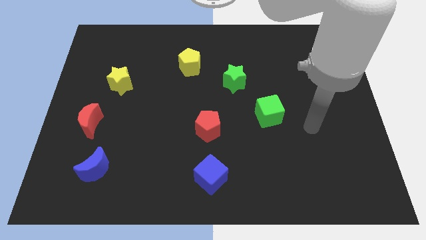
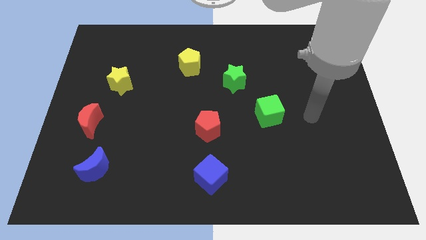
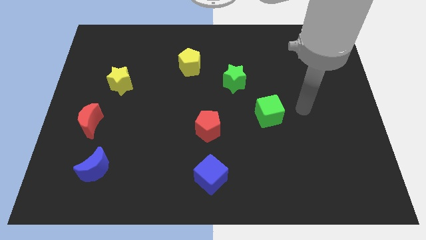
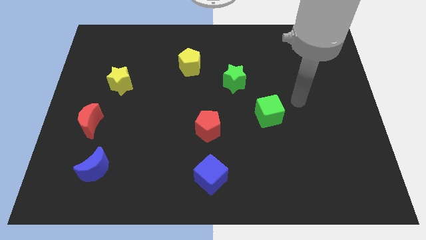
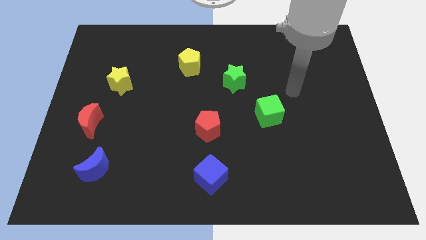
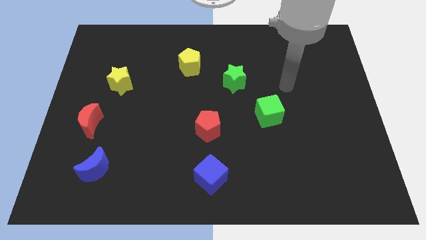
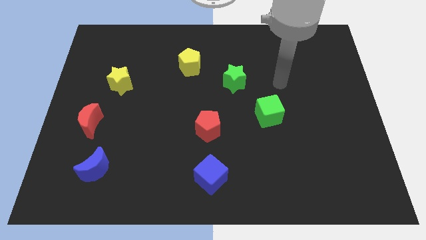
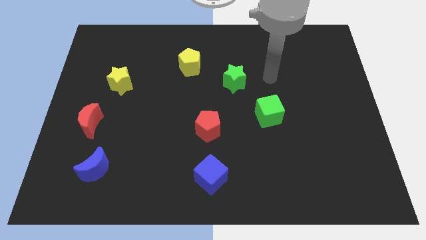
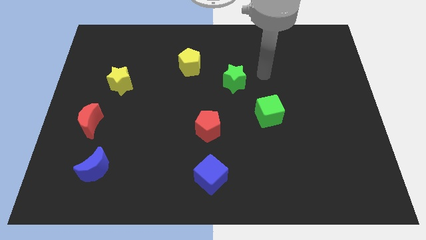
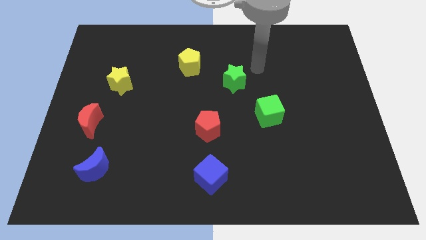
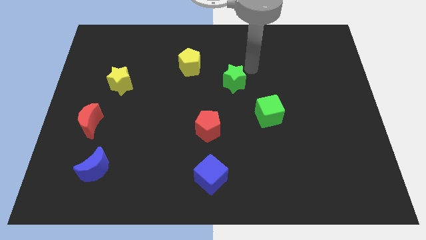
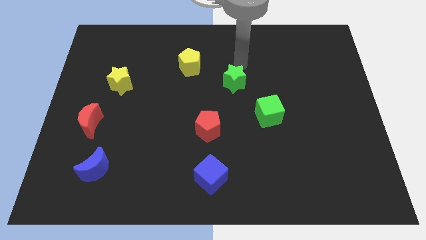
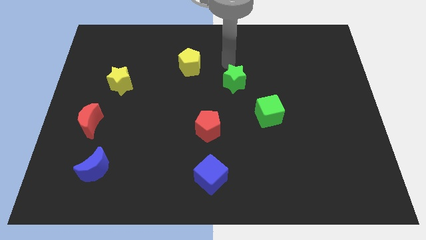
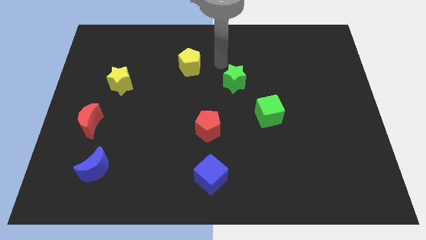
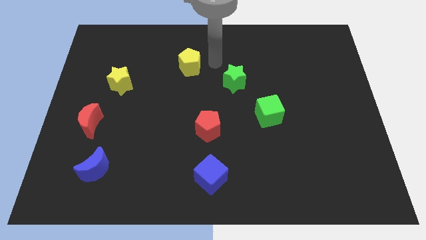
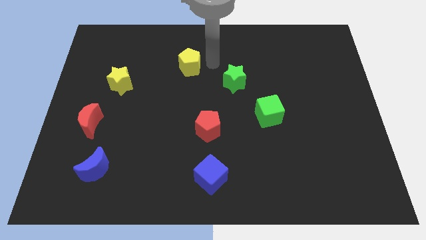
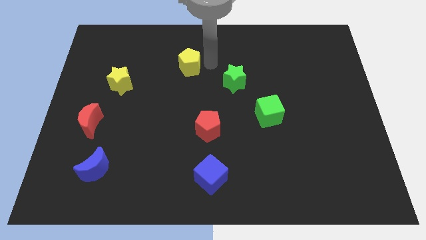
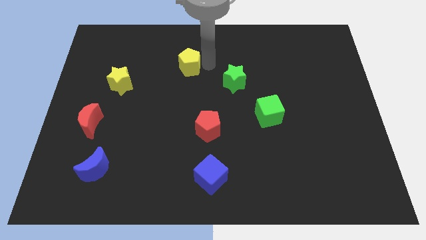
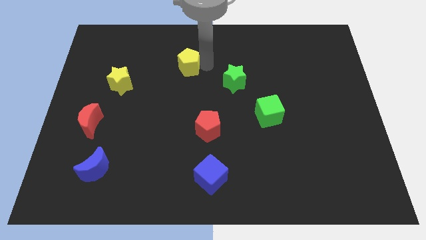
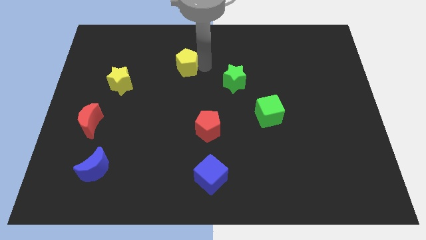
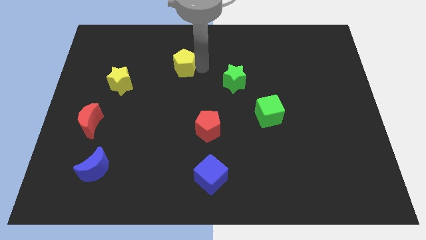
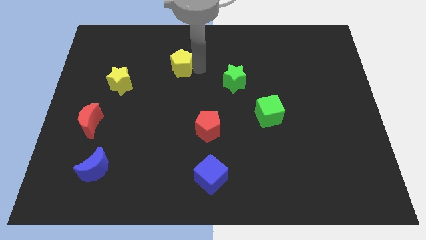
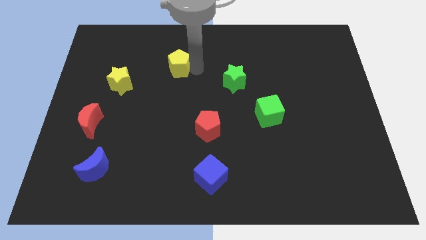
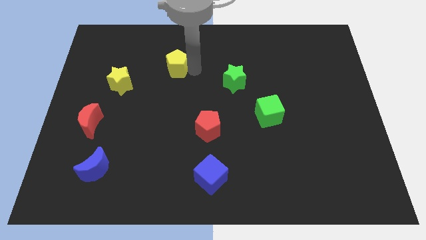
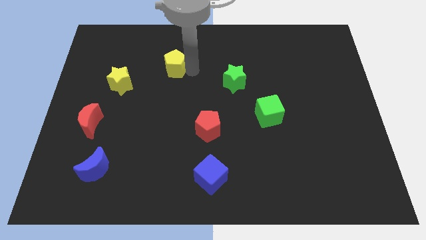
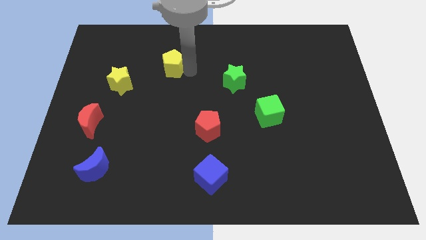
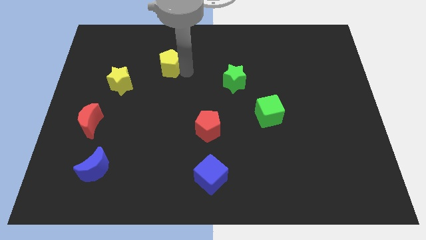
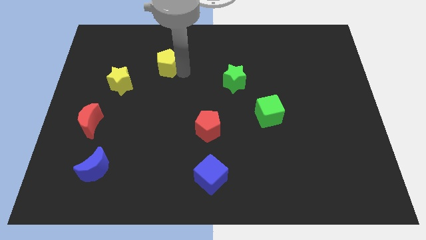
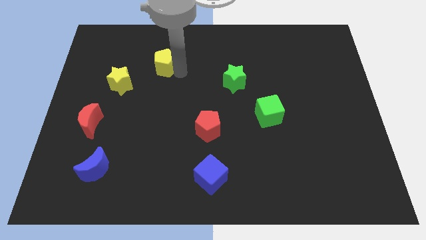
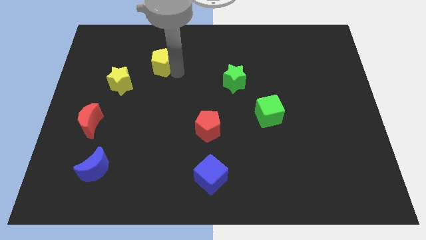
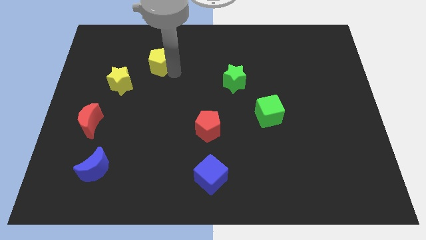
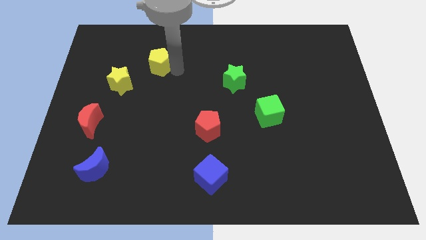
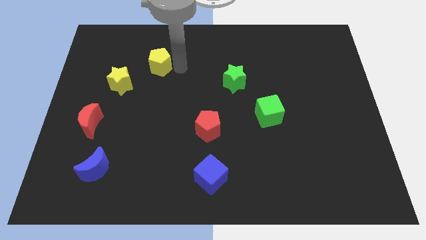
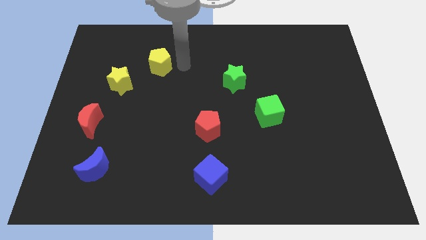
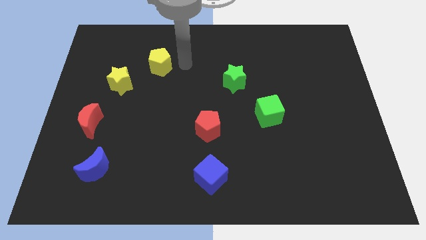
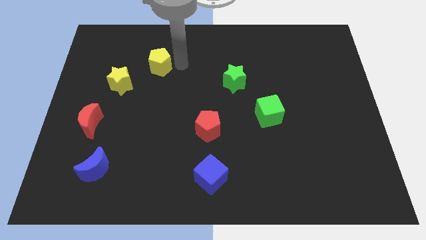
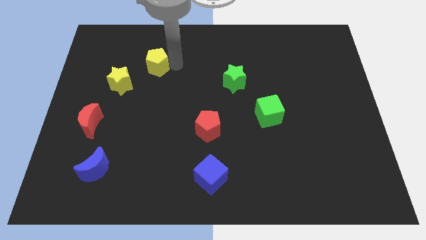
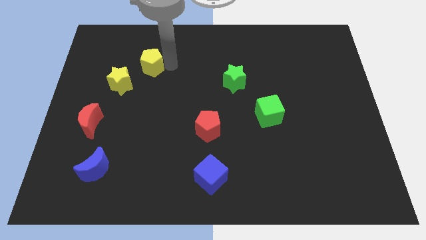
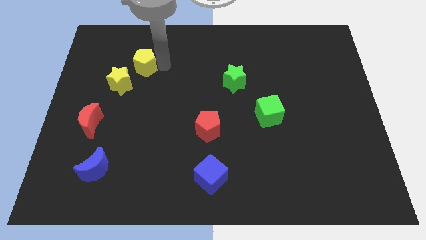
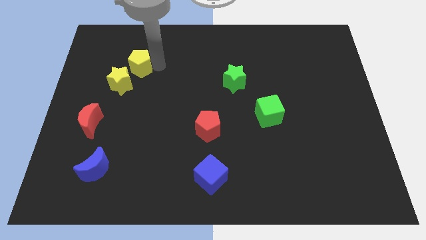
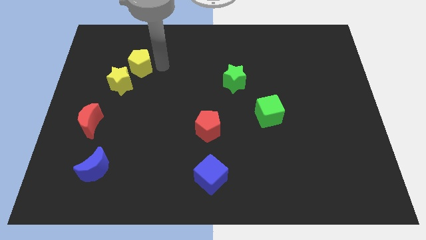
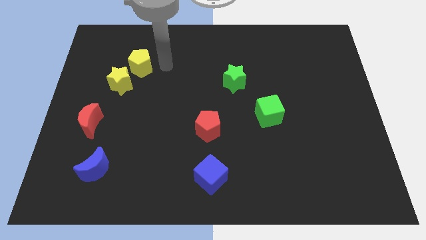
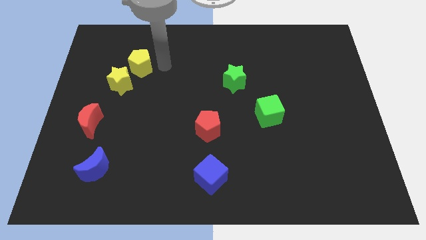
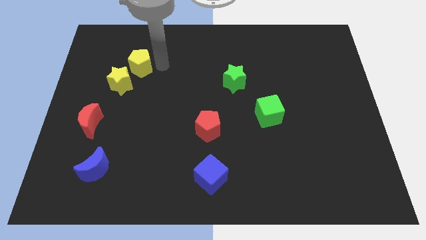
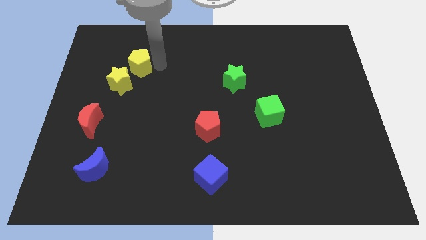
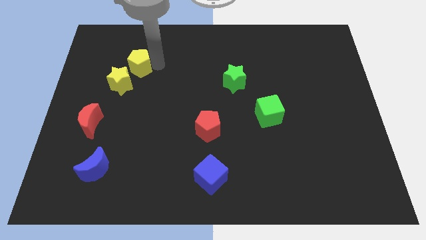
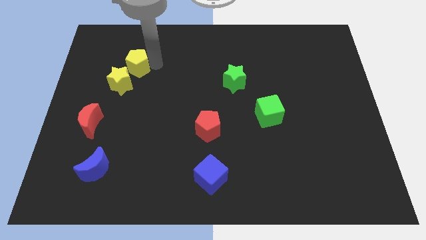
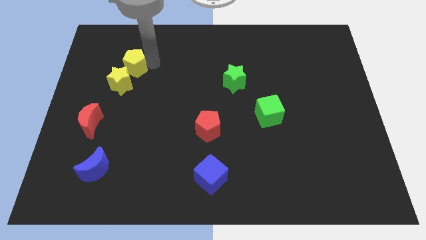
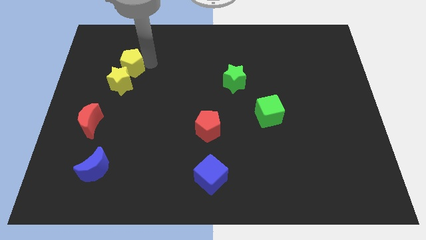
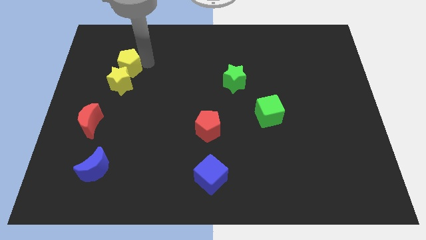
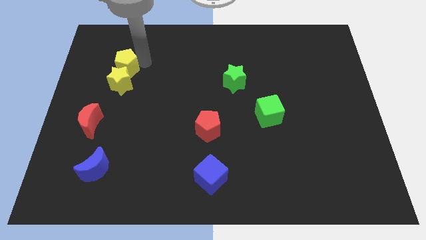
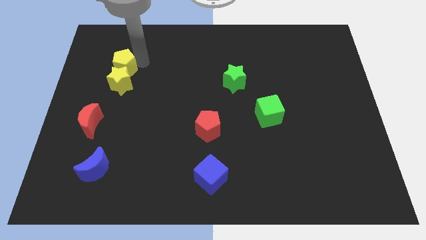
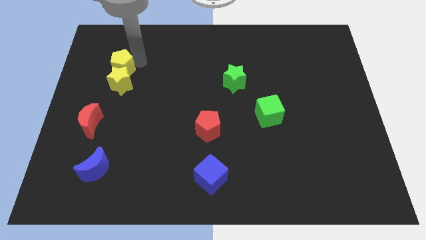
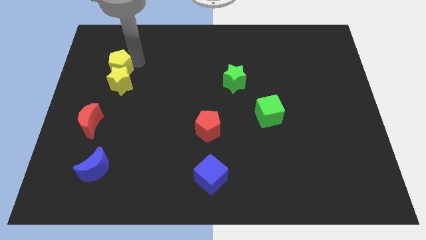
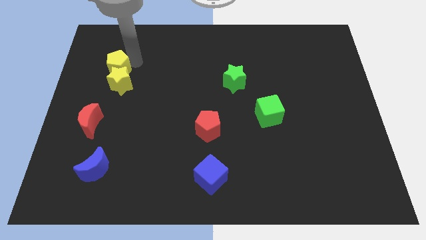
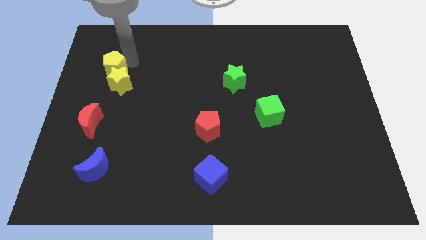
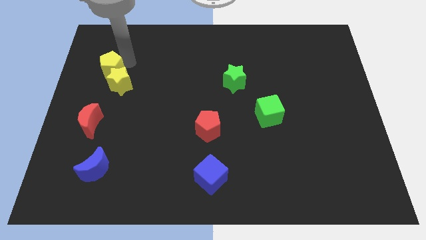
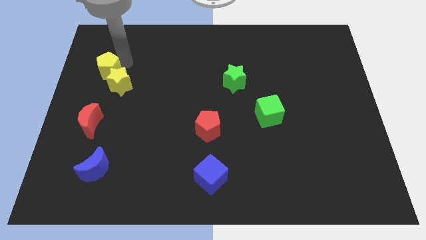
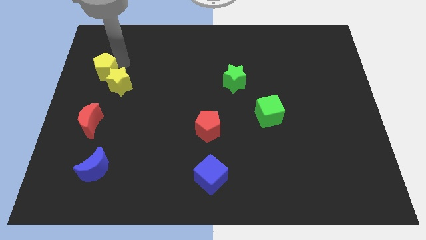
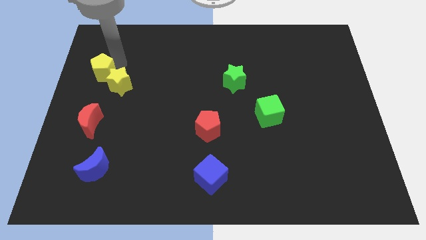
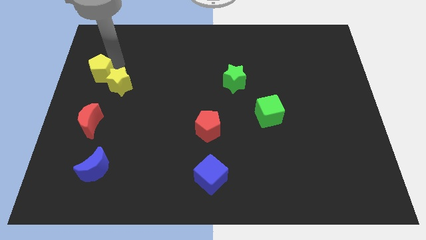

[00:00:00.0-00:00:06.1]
push the yellow pentagon to the center left

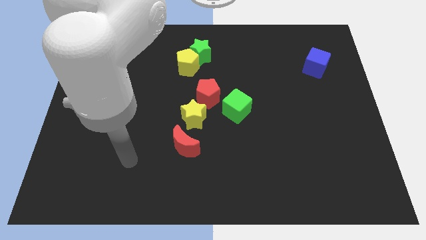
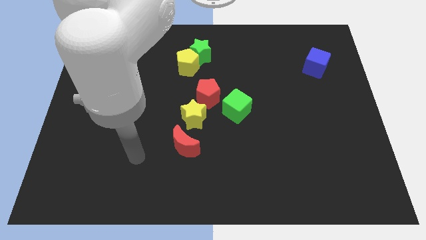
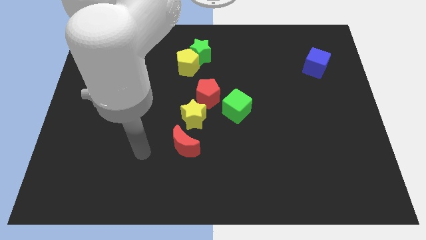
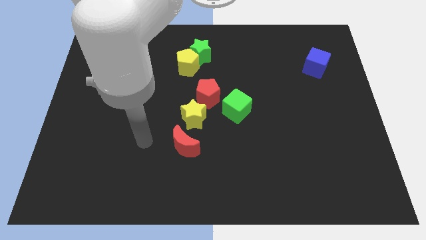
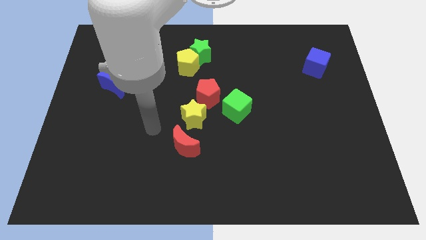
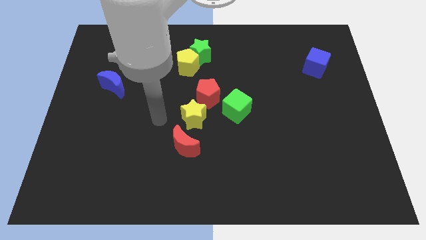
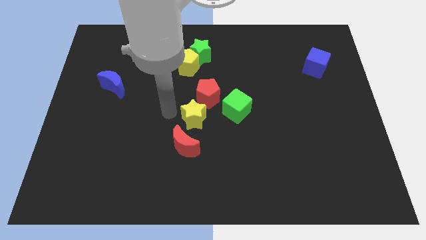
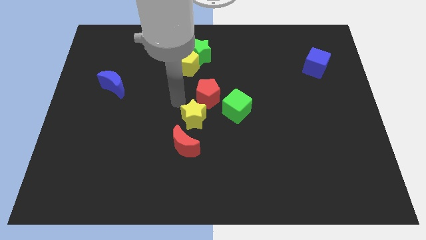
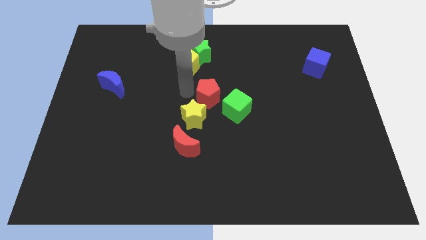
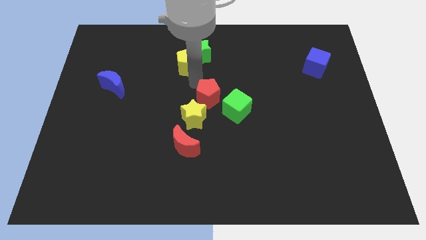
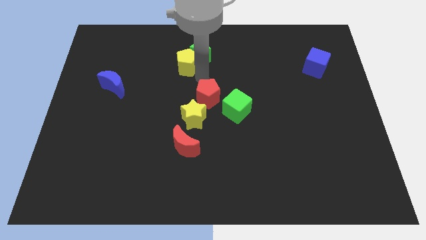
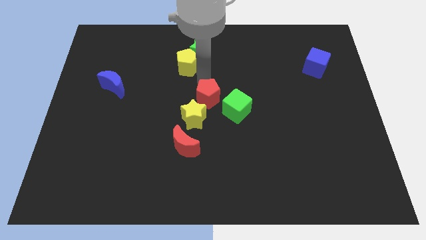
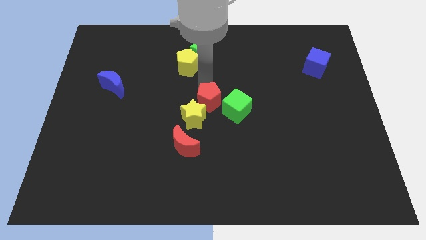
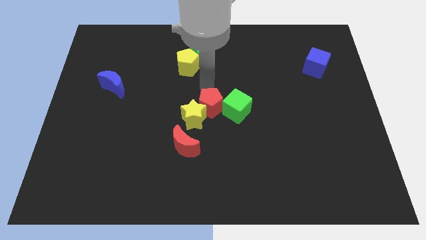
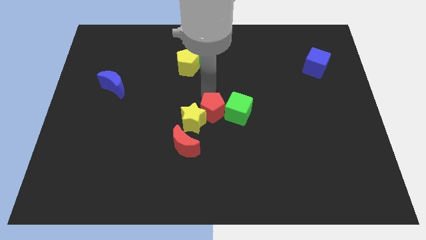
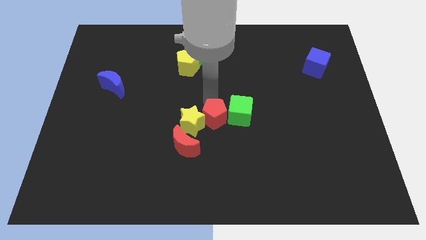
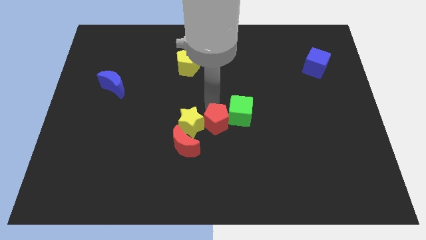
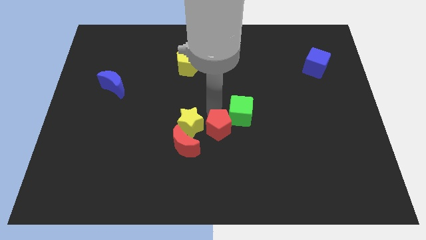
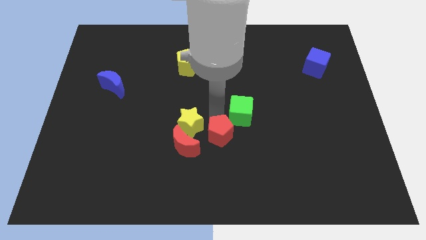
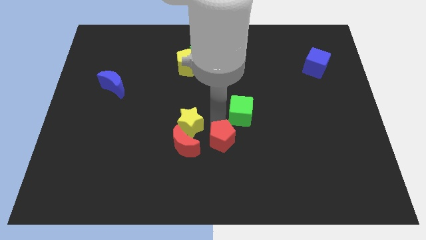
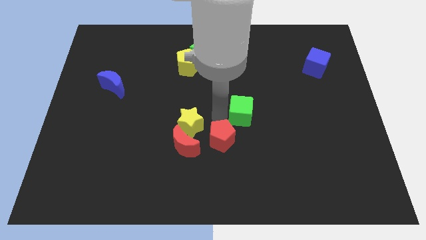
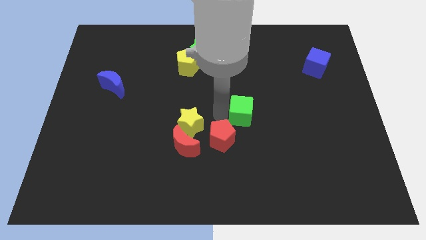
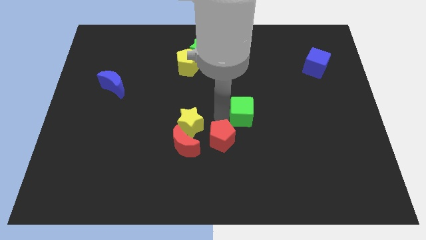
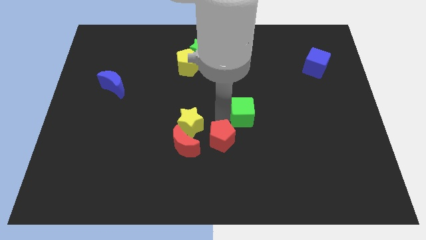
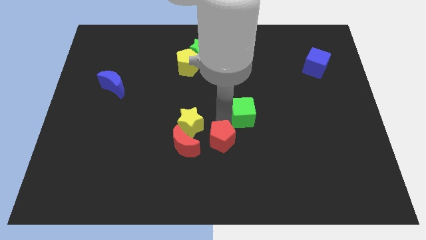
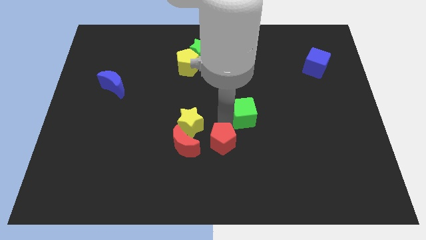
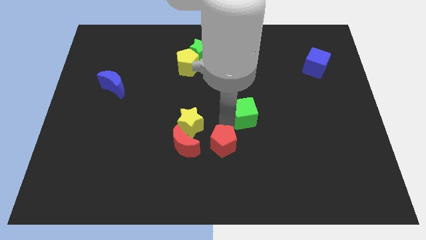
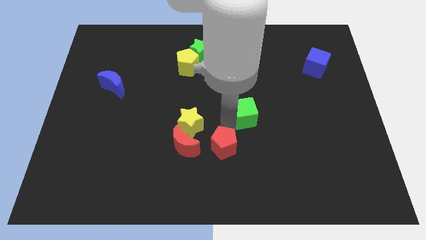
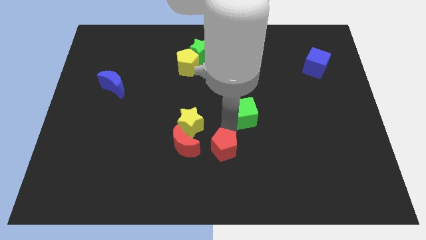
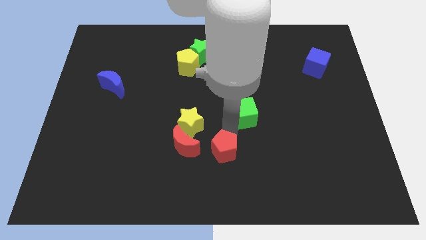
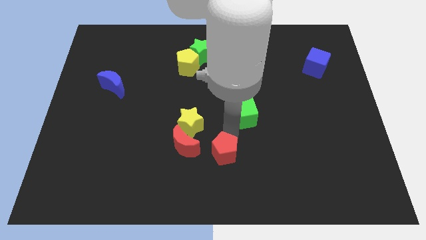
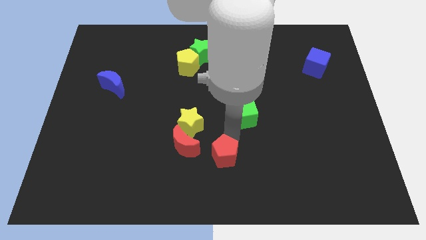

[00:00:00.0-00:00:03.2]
put the red pentagon to the bottom side
